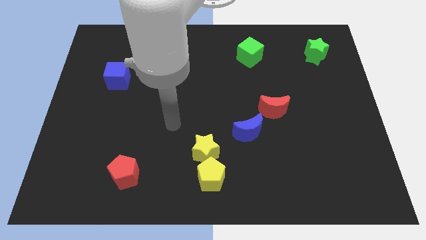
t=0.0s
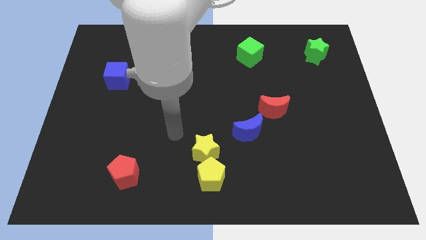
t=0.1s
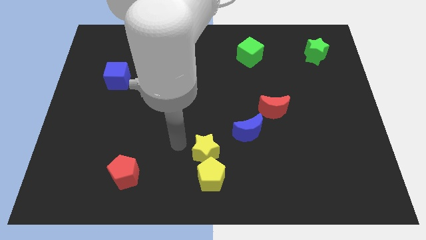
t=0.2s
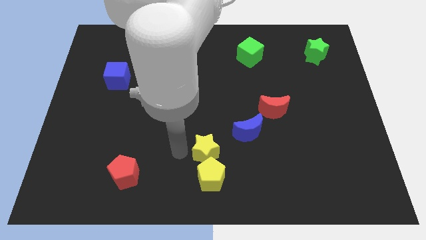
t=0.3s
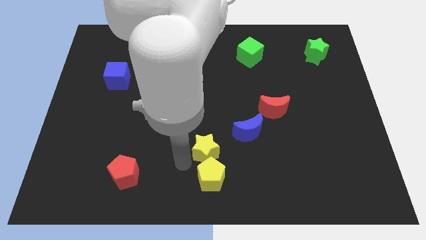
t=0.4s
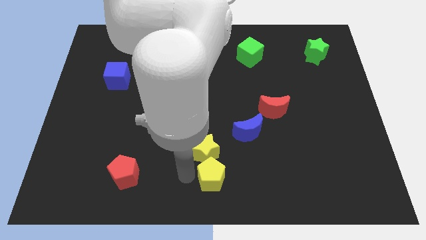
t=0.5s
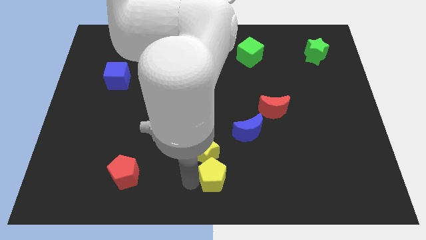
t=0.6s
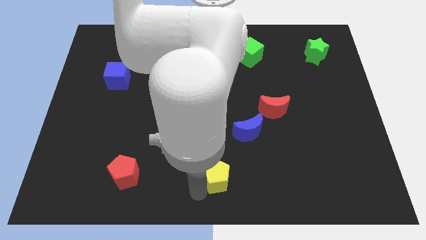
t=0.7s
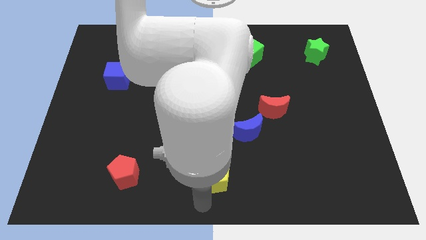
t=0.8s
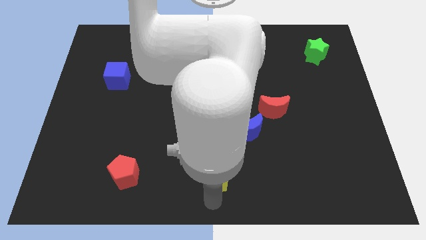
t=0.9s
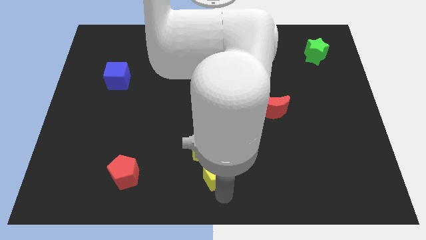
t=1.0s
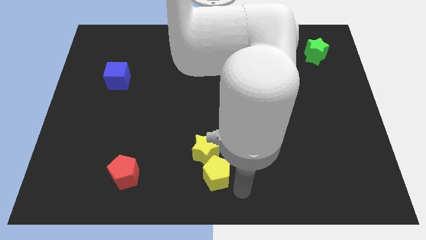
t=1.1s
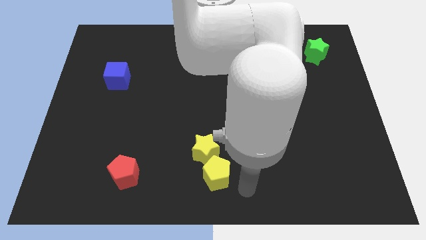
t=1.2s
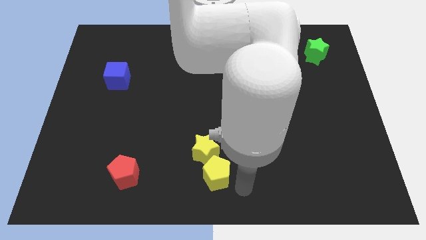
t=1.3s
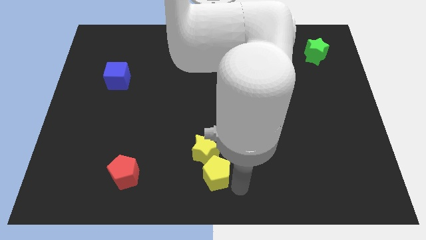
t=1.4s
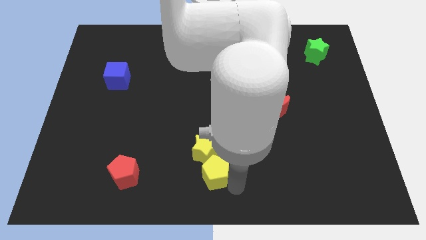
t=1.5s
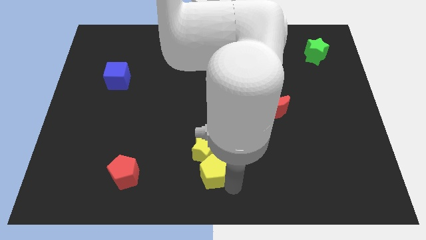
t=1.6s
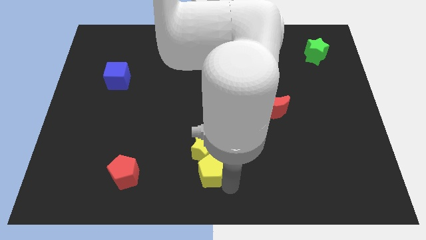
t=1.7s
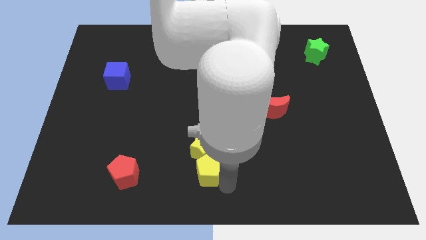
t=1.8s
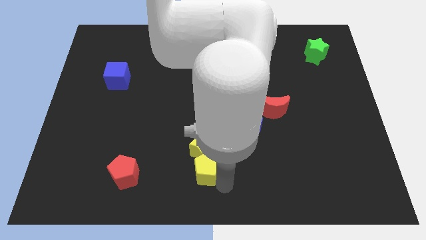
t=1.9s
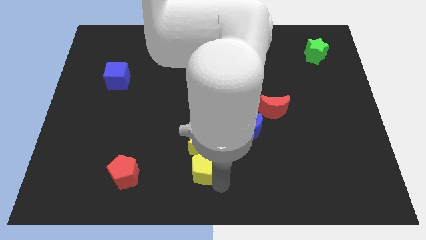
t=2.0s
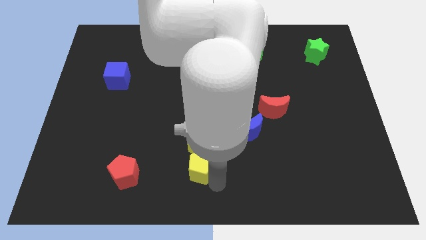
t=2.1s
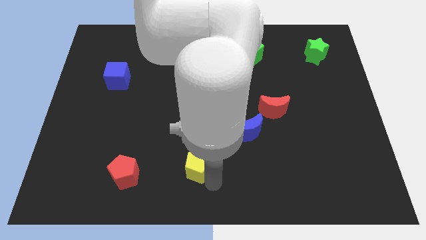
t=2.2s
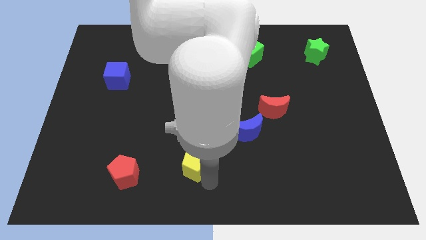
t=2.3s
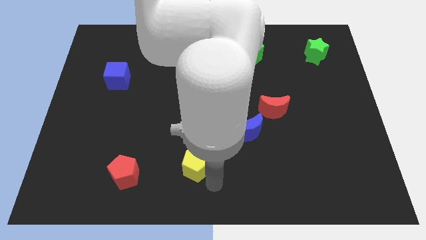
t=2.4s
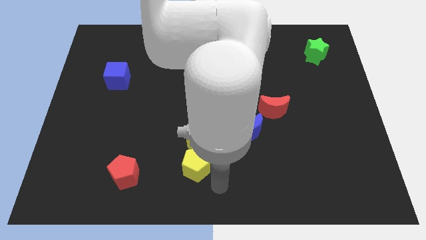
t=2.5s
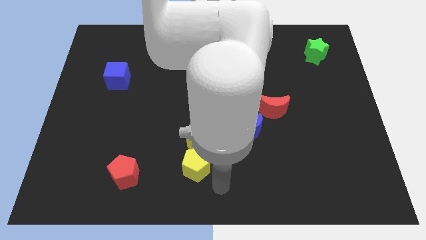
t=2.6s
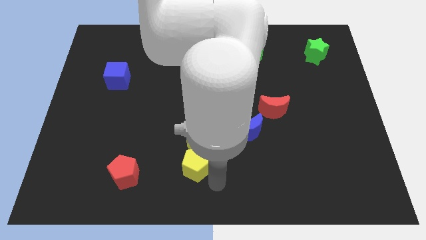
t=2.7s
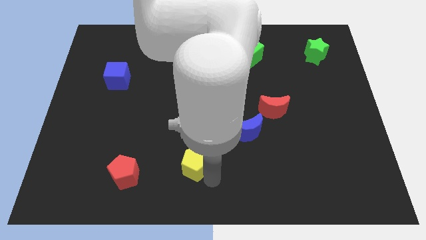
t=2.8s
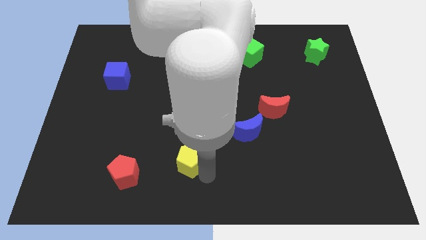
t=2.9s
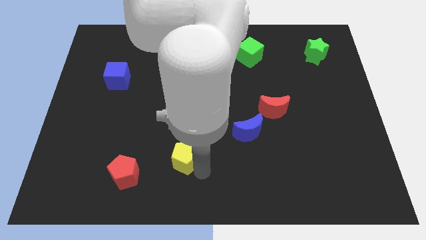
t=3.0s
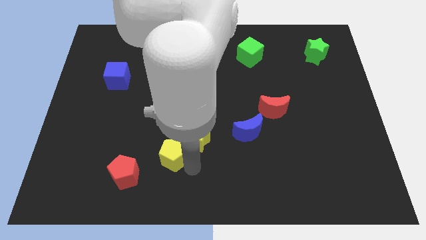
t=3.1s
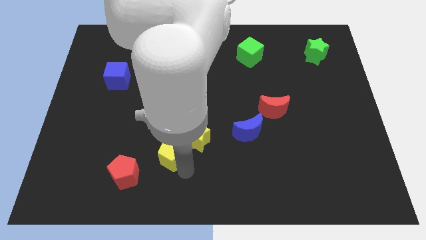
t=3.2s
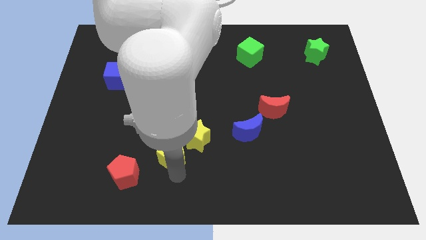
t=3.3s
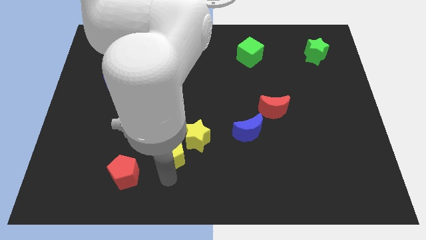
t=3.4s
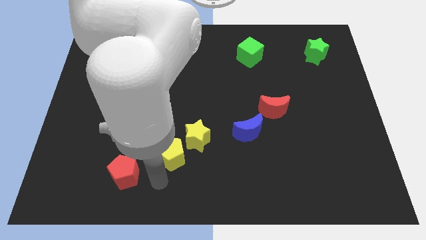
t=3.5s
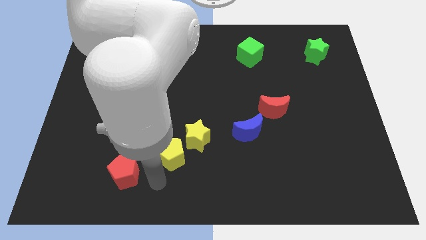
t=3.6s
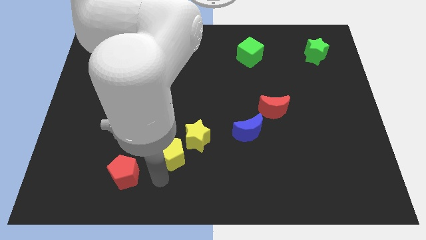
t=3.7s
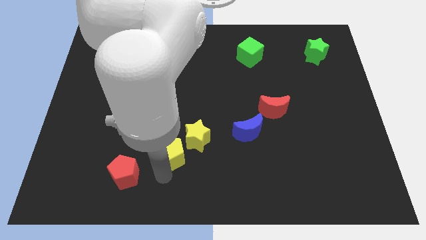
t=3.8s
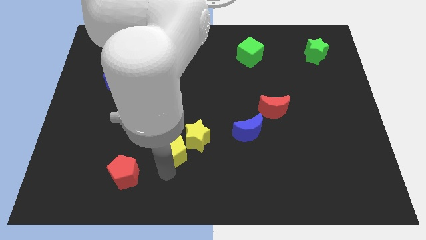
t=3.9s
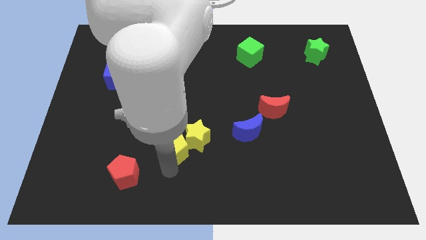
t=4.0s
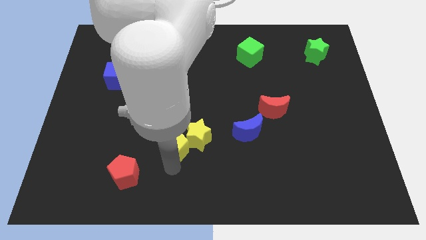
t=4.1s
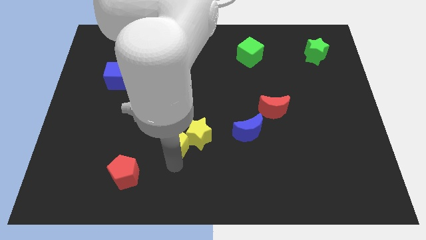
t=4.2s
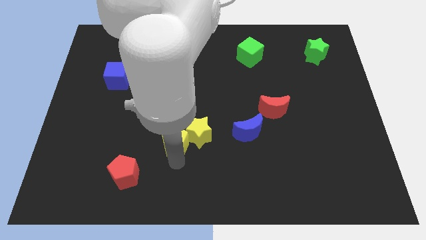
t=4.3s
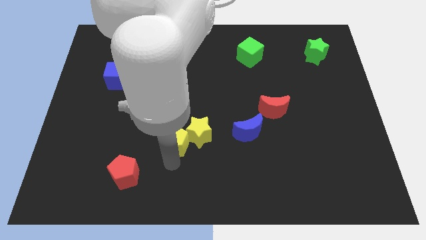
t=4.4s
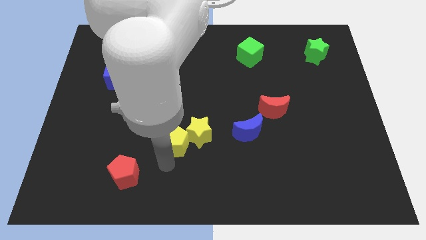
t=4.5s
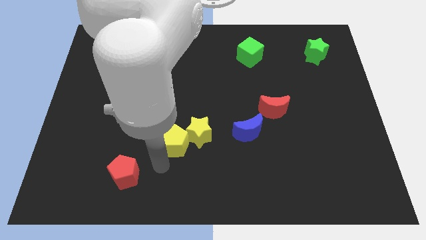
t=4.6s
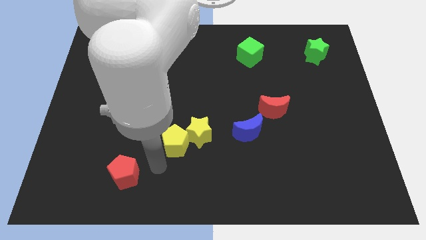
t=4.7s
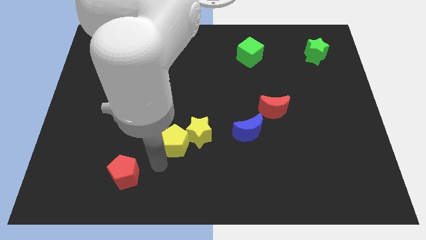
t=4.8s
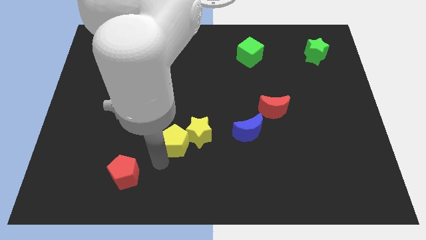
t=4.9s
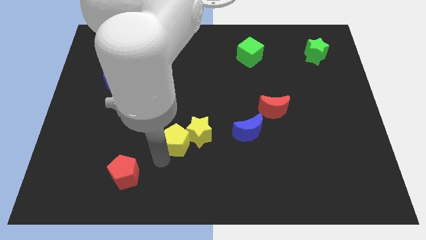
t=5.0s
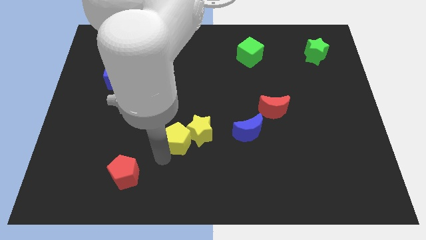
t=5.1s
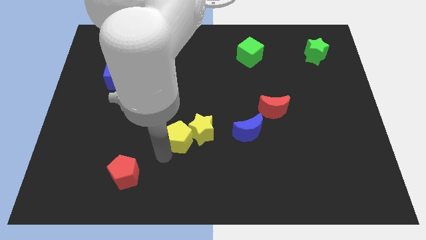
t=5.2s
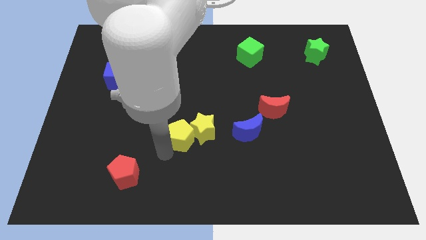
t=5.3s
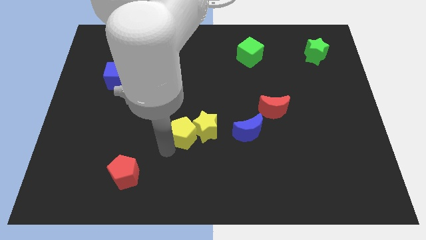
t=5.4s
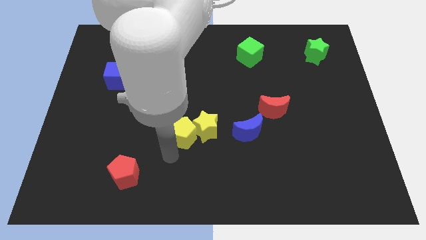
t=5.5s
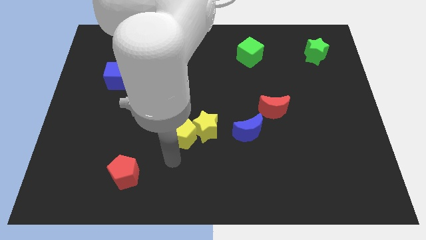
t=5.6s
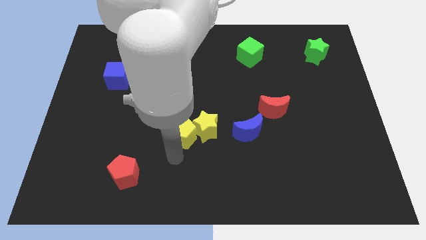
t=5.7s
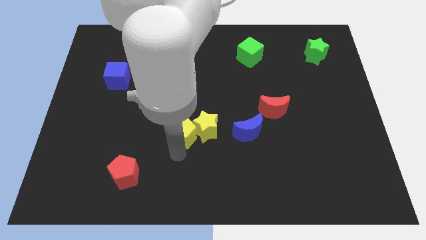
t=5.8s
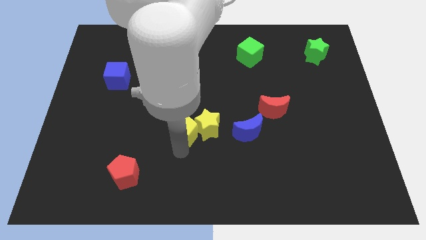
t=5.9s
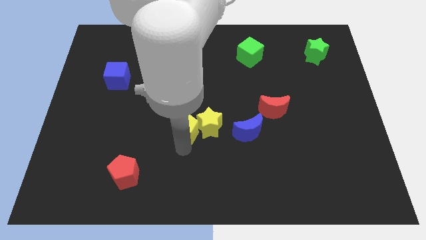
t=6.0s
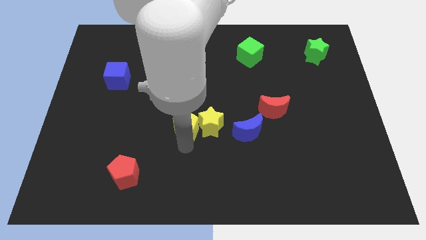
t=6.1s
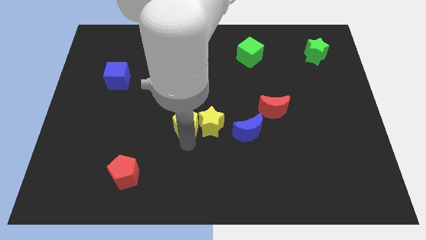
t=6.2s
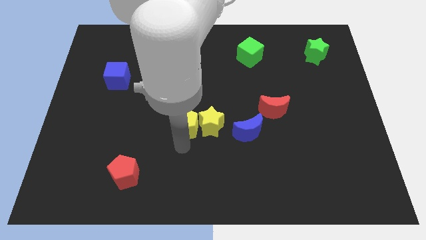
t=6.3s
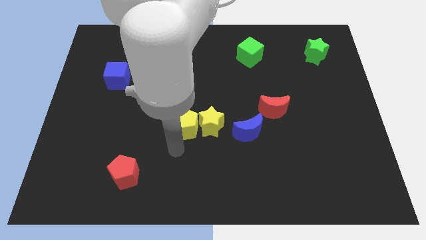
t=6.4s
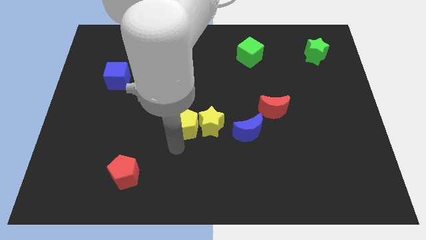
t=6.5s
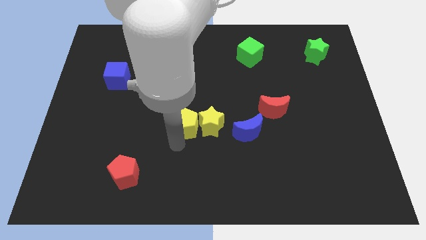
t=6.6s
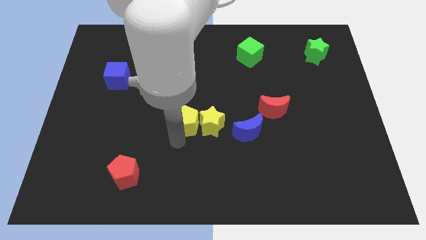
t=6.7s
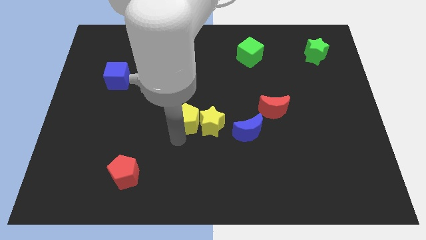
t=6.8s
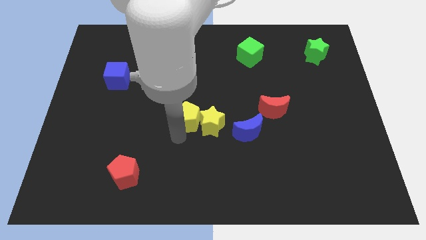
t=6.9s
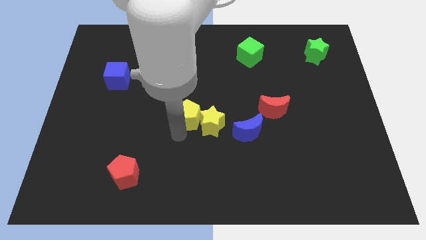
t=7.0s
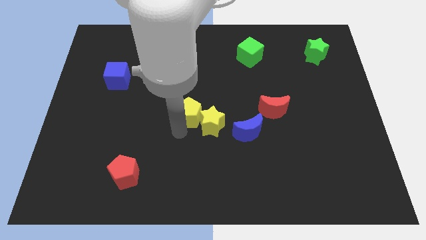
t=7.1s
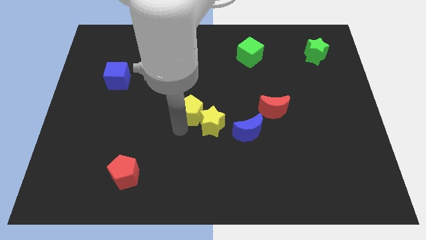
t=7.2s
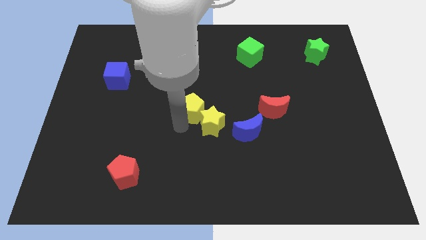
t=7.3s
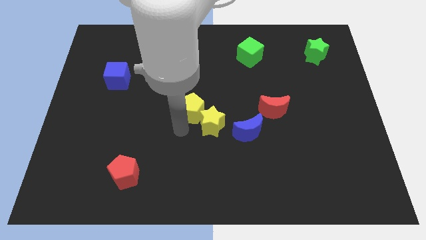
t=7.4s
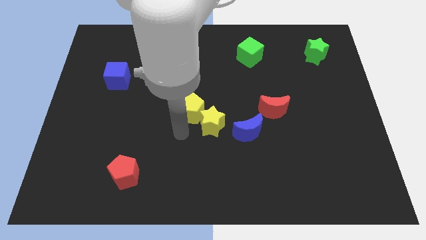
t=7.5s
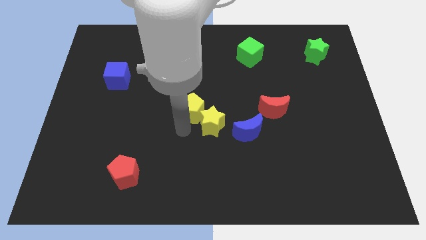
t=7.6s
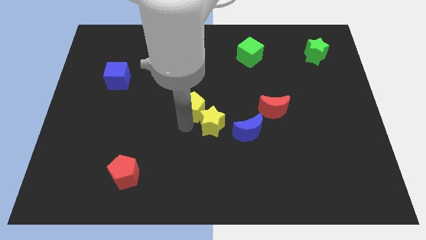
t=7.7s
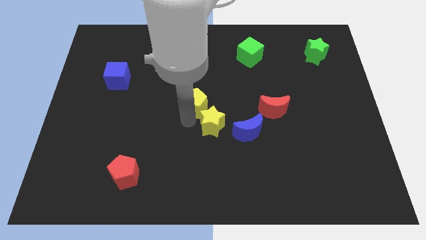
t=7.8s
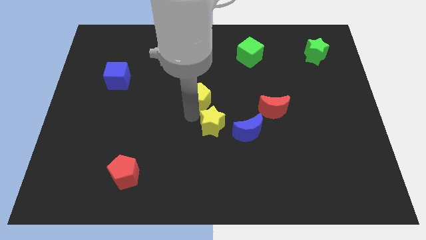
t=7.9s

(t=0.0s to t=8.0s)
push the yellow pentagon up

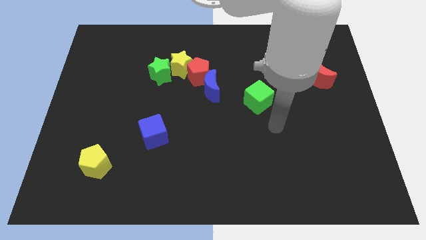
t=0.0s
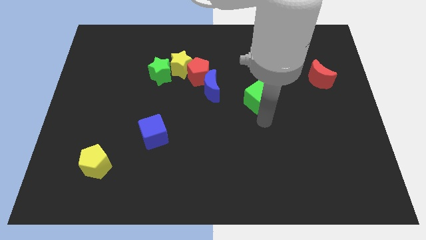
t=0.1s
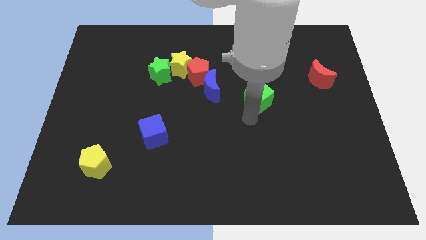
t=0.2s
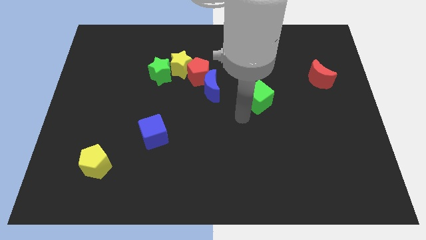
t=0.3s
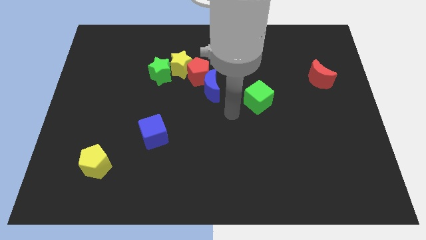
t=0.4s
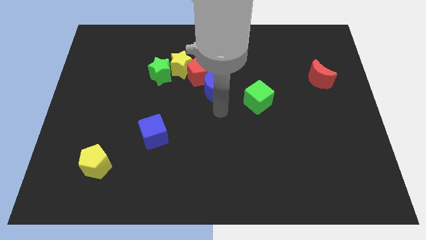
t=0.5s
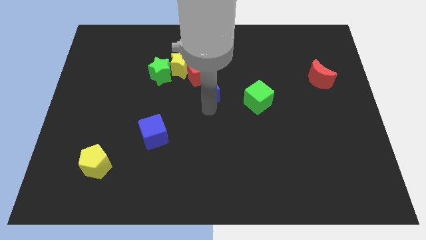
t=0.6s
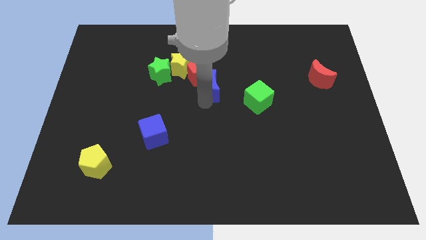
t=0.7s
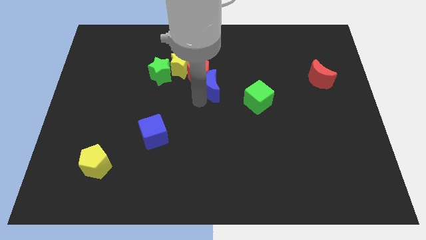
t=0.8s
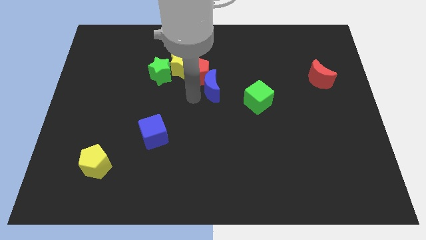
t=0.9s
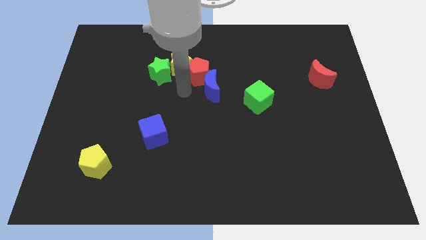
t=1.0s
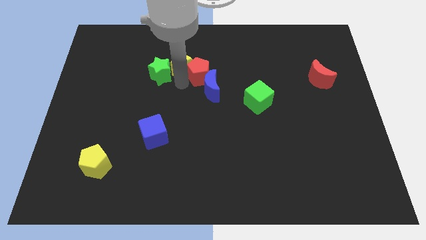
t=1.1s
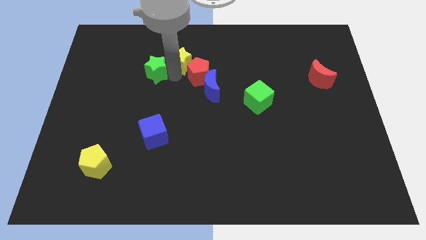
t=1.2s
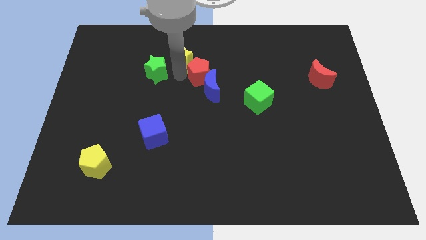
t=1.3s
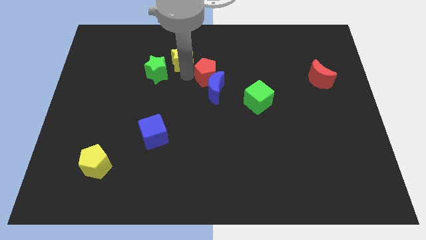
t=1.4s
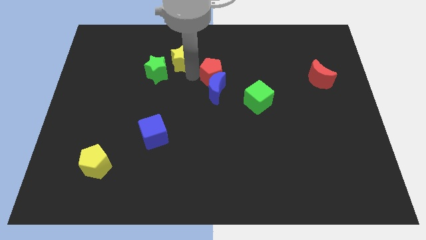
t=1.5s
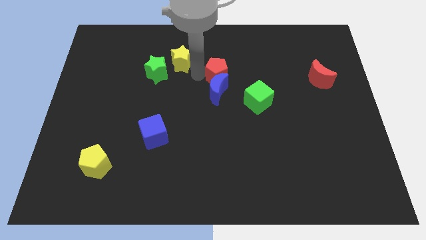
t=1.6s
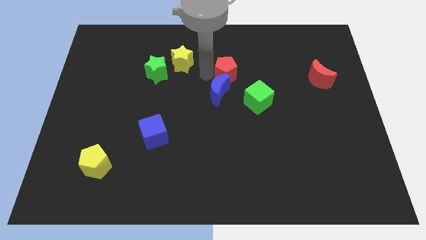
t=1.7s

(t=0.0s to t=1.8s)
move the red pentagon a little right
